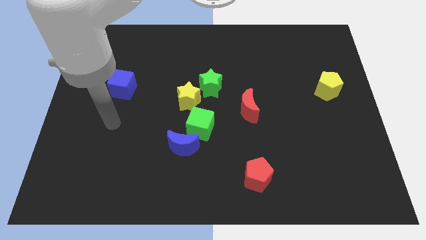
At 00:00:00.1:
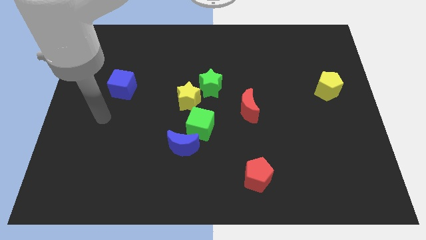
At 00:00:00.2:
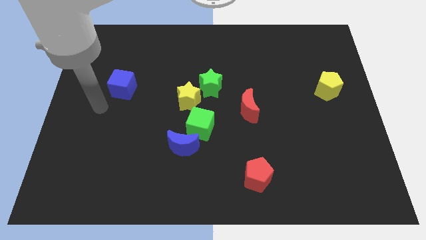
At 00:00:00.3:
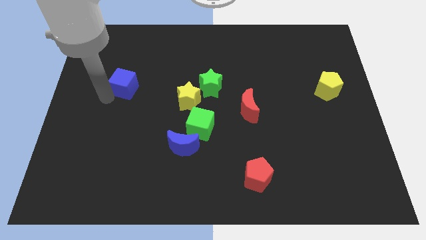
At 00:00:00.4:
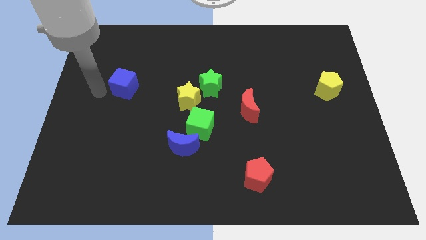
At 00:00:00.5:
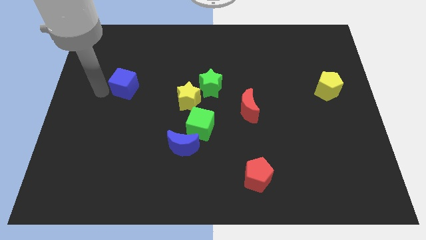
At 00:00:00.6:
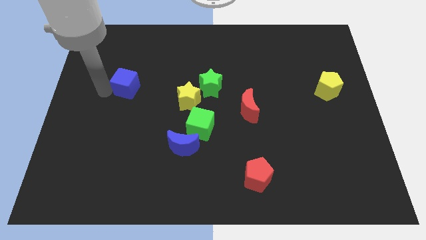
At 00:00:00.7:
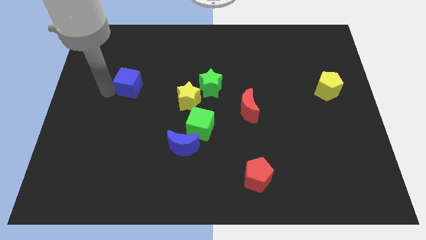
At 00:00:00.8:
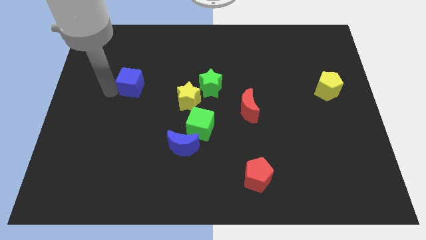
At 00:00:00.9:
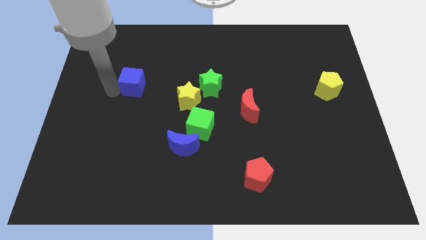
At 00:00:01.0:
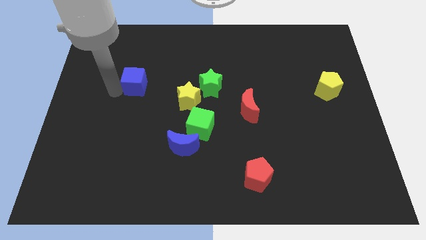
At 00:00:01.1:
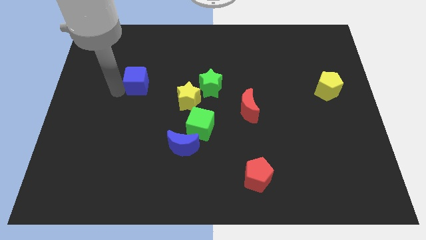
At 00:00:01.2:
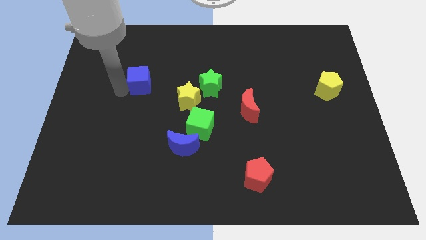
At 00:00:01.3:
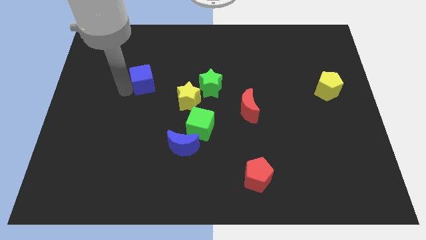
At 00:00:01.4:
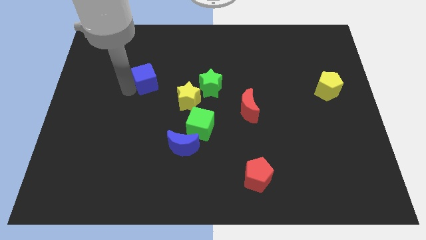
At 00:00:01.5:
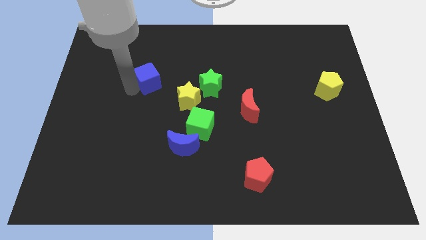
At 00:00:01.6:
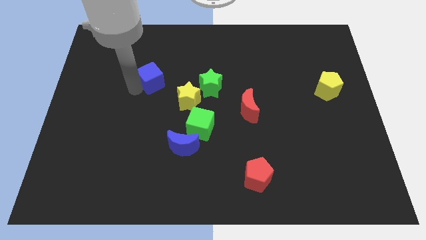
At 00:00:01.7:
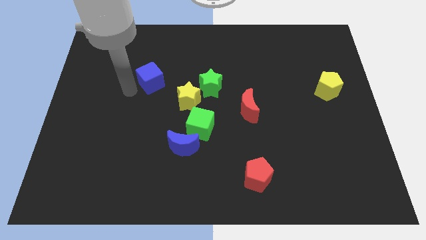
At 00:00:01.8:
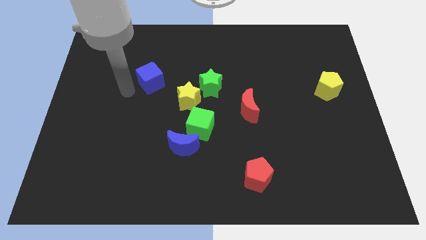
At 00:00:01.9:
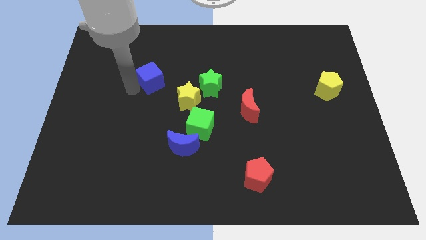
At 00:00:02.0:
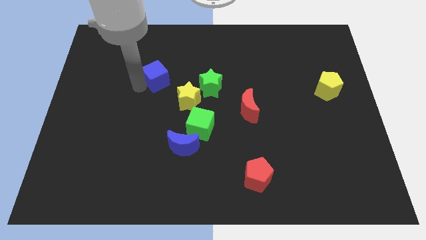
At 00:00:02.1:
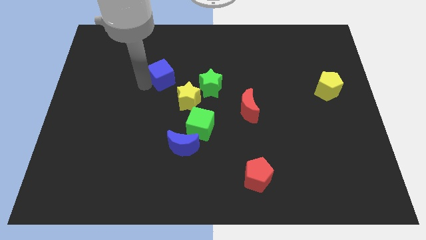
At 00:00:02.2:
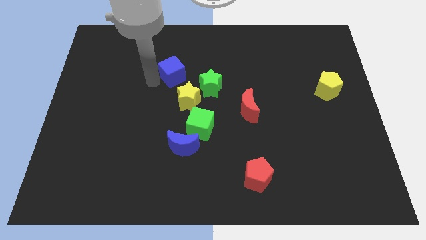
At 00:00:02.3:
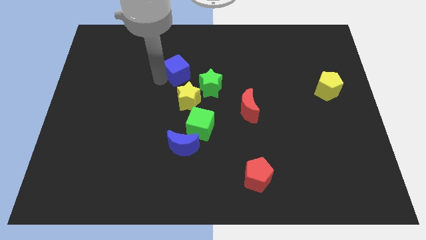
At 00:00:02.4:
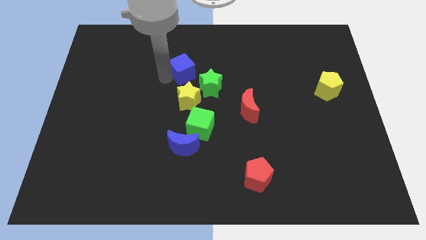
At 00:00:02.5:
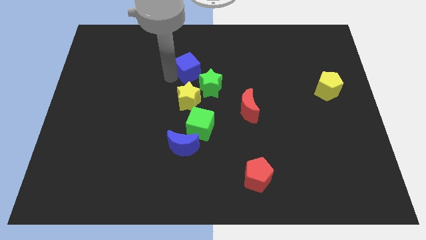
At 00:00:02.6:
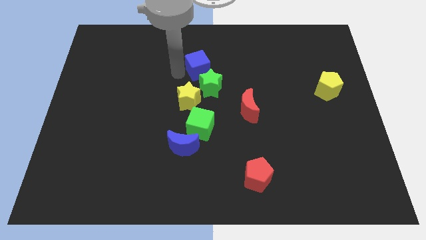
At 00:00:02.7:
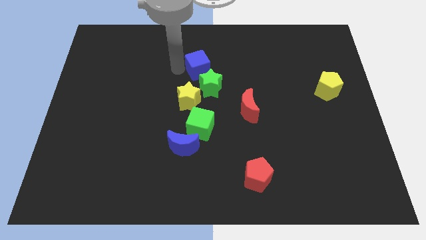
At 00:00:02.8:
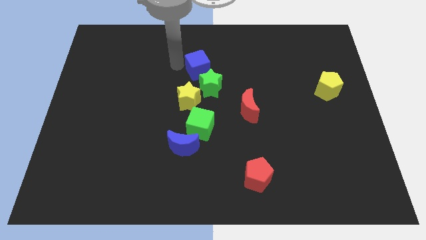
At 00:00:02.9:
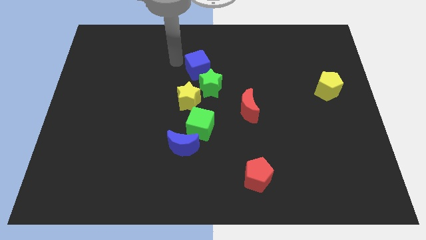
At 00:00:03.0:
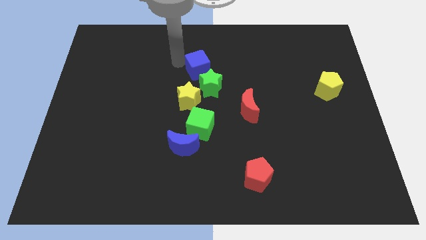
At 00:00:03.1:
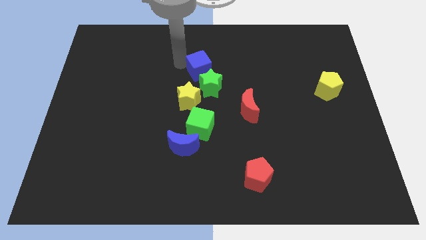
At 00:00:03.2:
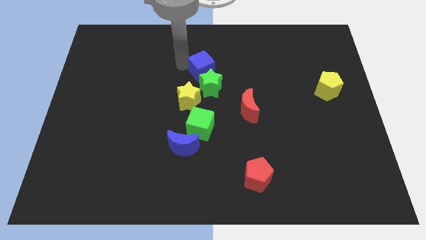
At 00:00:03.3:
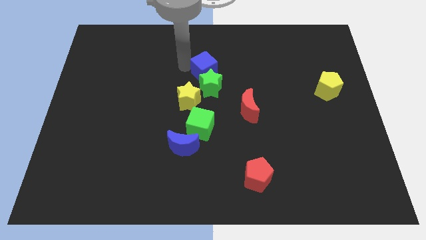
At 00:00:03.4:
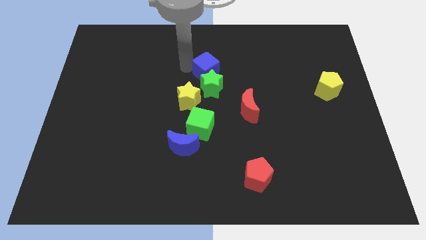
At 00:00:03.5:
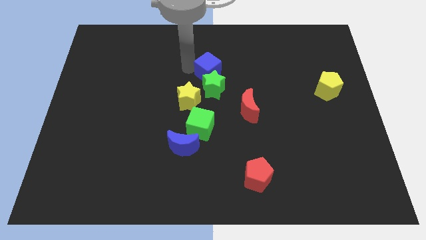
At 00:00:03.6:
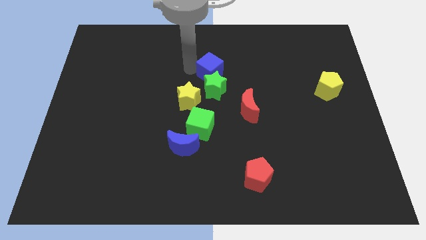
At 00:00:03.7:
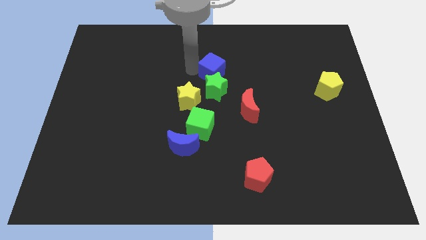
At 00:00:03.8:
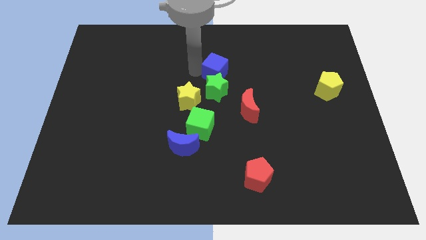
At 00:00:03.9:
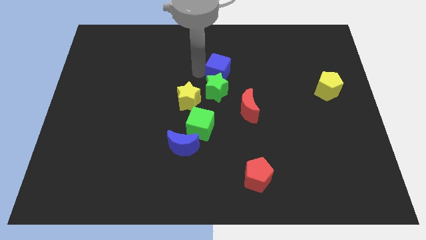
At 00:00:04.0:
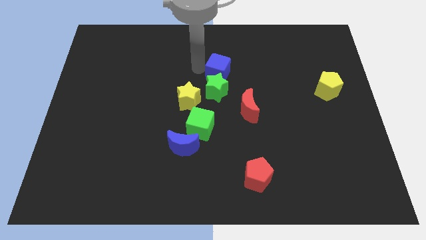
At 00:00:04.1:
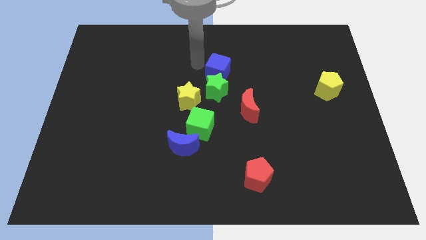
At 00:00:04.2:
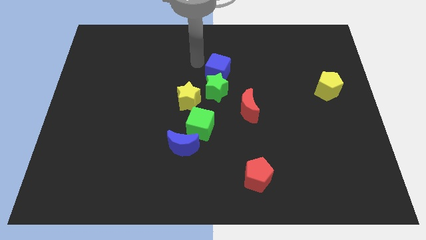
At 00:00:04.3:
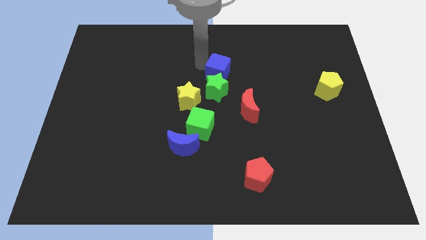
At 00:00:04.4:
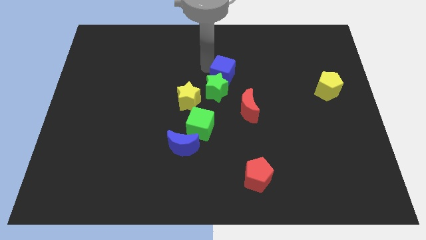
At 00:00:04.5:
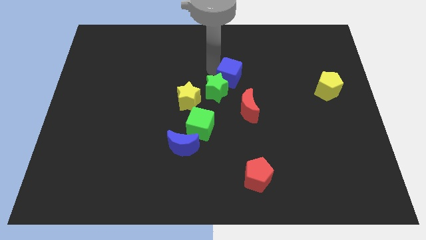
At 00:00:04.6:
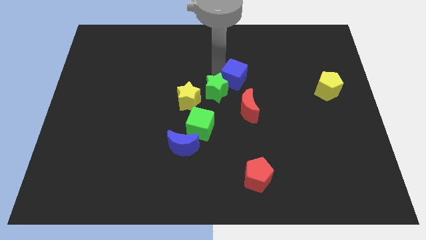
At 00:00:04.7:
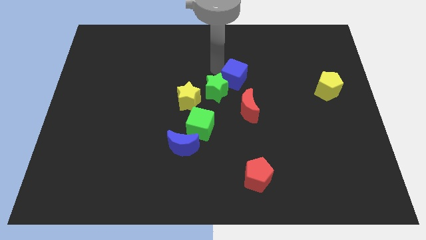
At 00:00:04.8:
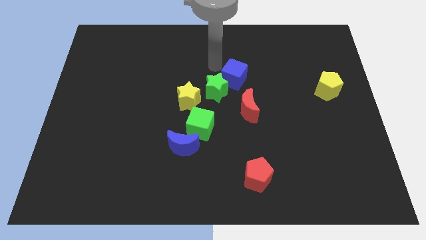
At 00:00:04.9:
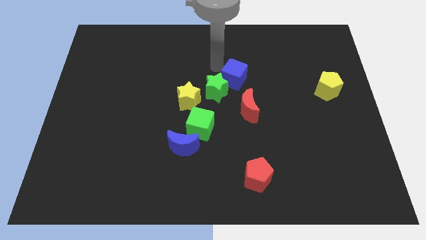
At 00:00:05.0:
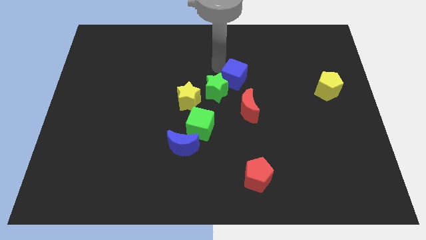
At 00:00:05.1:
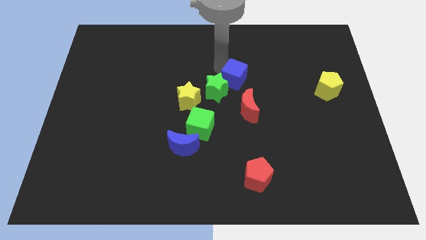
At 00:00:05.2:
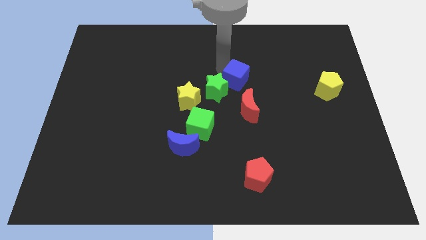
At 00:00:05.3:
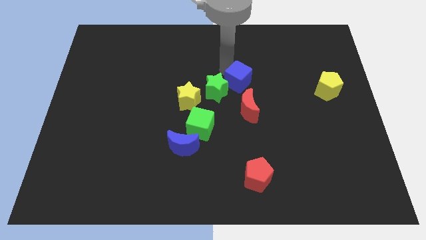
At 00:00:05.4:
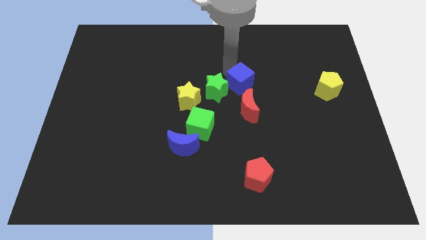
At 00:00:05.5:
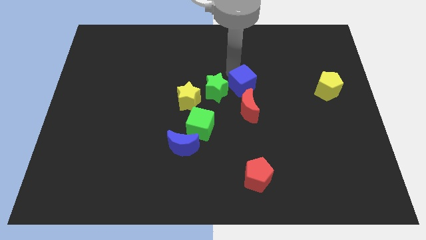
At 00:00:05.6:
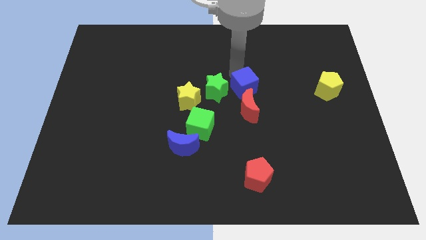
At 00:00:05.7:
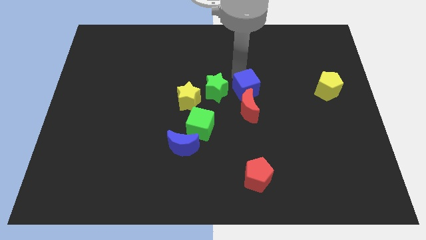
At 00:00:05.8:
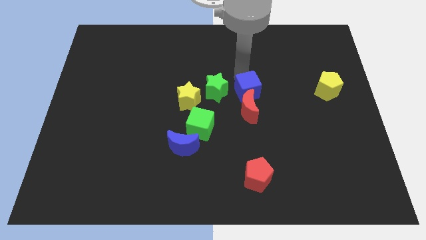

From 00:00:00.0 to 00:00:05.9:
push the blue cube next to the red moon

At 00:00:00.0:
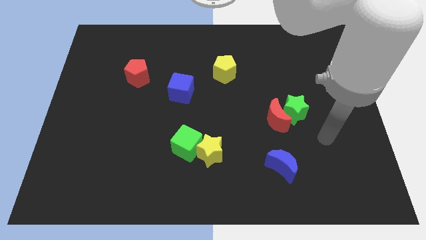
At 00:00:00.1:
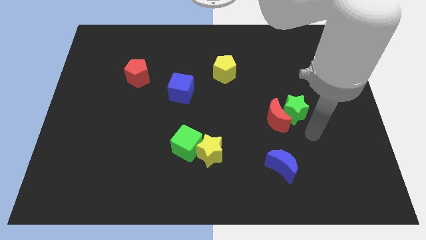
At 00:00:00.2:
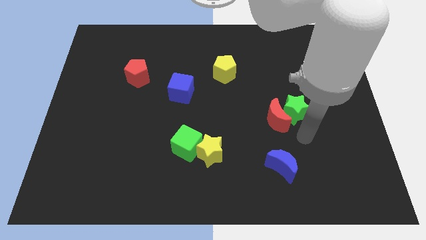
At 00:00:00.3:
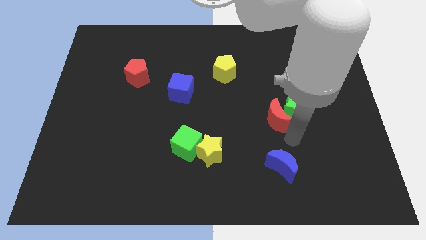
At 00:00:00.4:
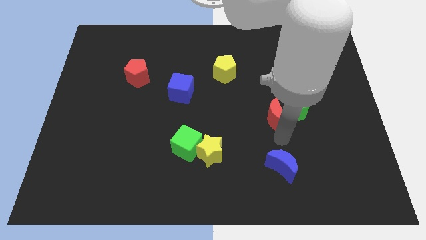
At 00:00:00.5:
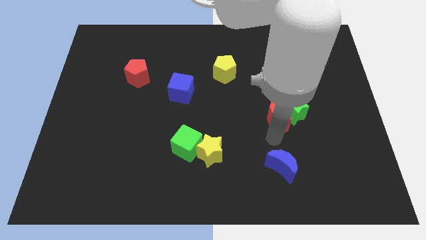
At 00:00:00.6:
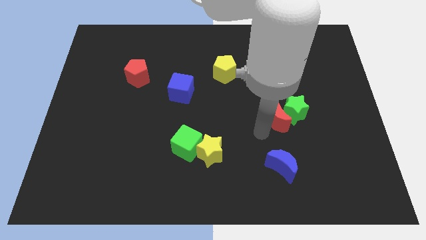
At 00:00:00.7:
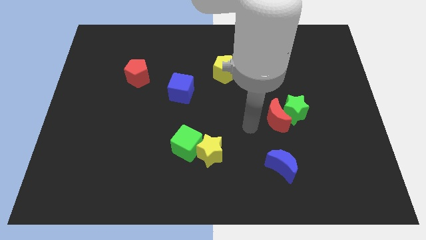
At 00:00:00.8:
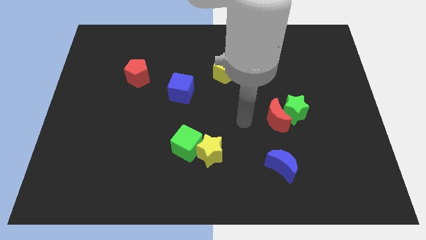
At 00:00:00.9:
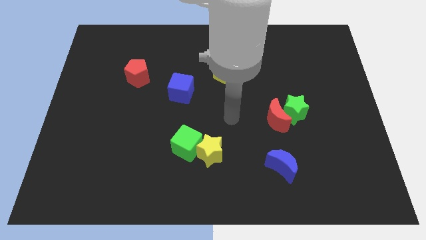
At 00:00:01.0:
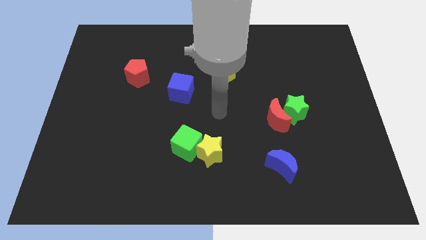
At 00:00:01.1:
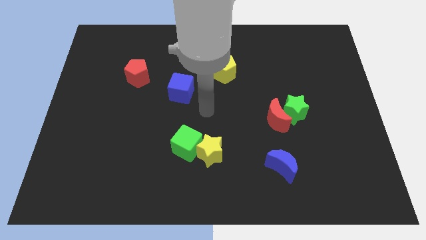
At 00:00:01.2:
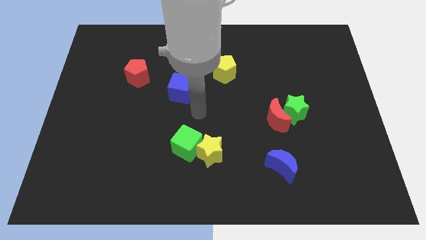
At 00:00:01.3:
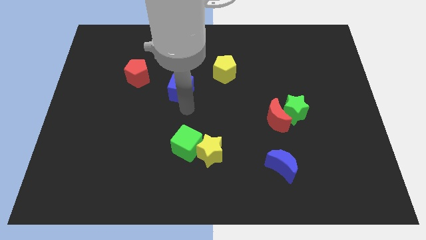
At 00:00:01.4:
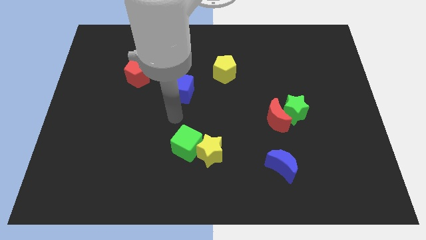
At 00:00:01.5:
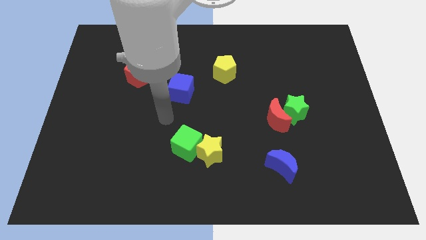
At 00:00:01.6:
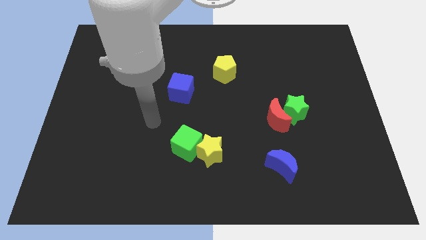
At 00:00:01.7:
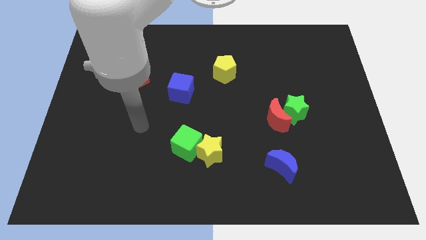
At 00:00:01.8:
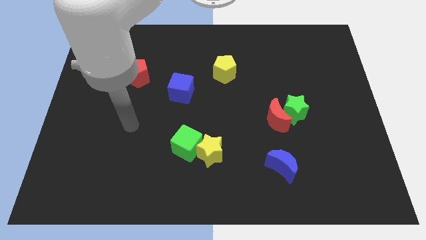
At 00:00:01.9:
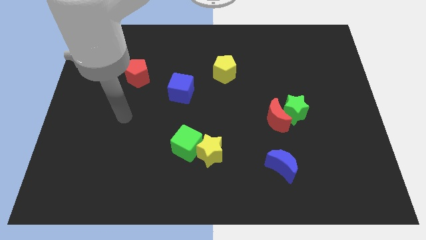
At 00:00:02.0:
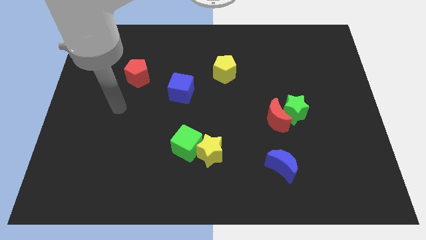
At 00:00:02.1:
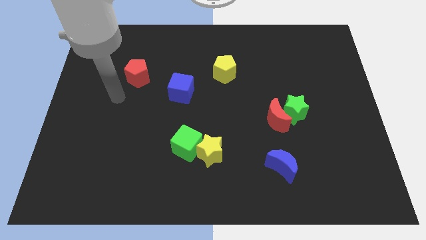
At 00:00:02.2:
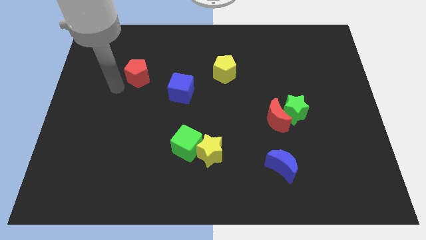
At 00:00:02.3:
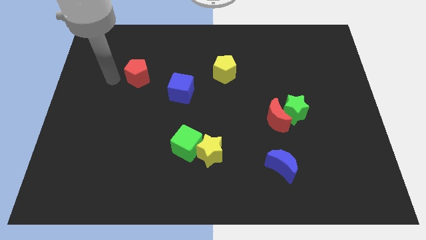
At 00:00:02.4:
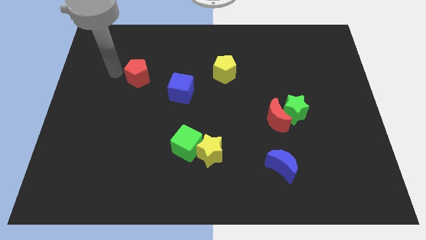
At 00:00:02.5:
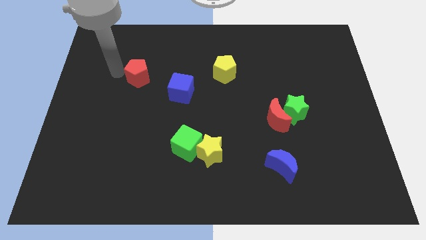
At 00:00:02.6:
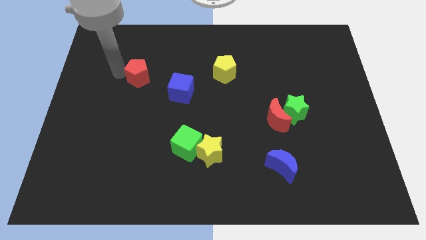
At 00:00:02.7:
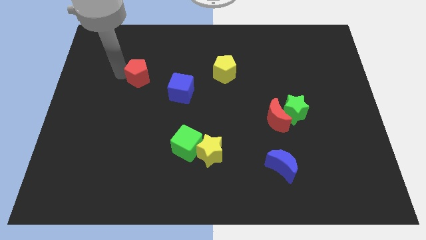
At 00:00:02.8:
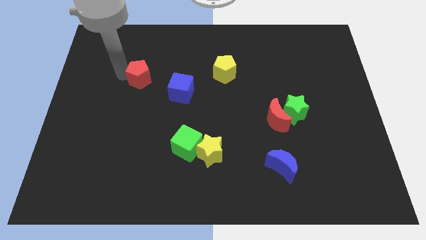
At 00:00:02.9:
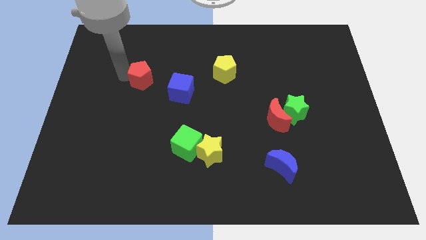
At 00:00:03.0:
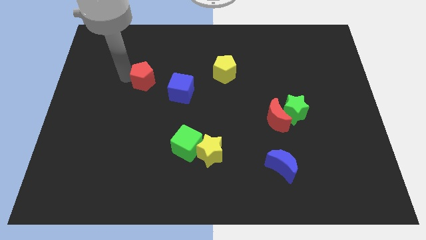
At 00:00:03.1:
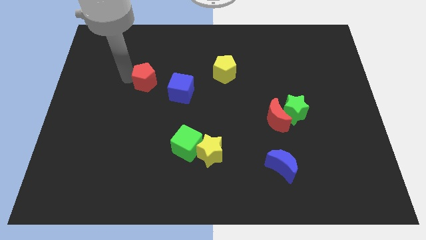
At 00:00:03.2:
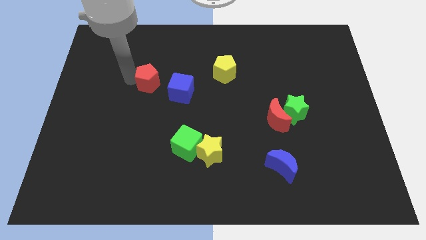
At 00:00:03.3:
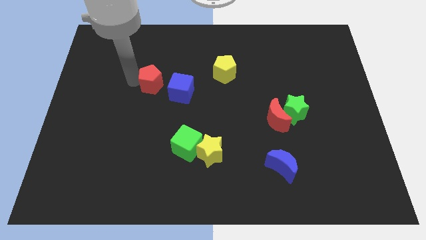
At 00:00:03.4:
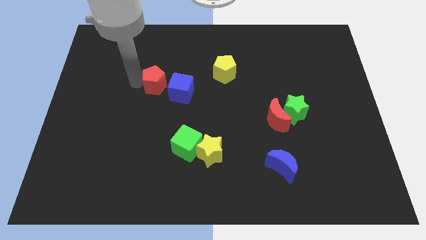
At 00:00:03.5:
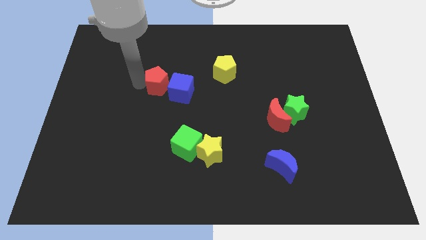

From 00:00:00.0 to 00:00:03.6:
put the red pentagon close to the blue cube
